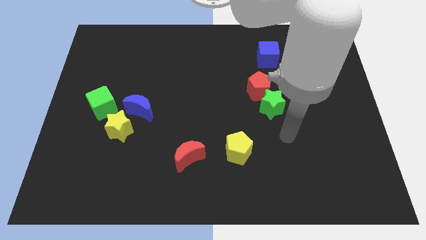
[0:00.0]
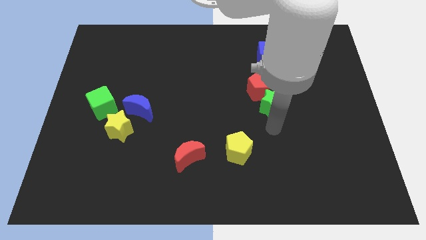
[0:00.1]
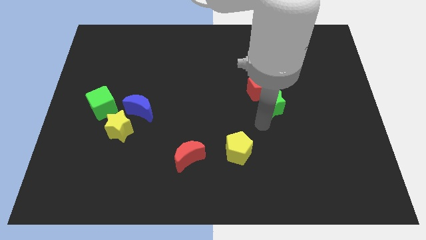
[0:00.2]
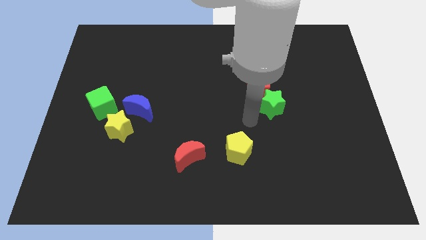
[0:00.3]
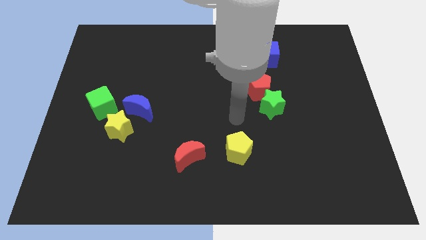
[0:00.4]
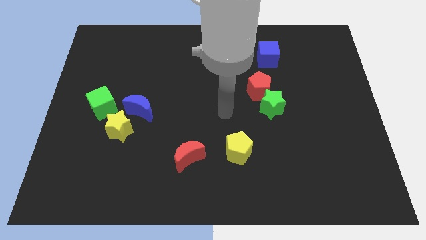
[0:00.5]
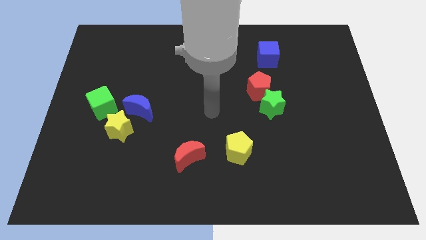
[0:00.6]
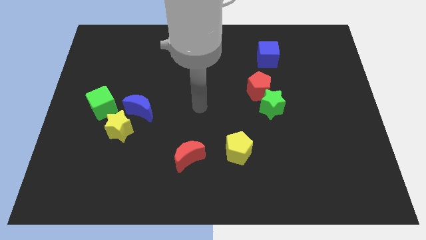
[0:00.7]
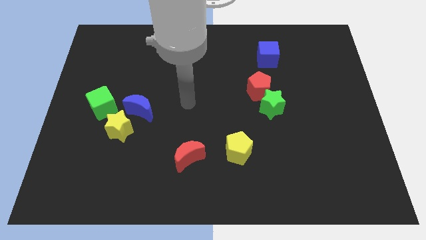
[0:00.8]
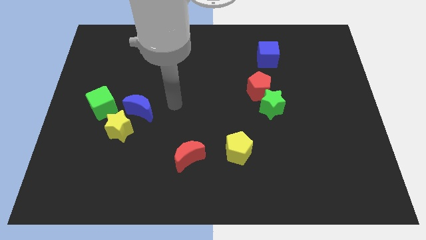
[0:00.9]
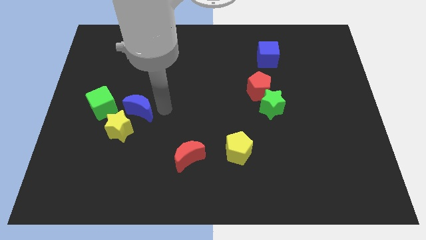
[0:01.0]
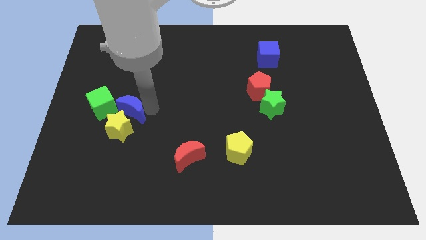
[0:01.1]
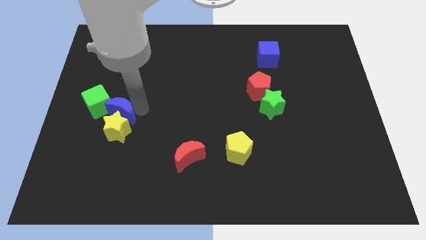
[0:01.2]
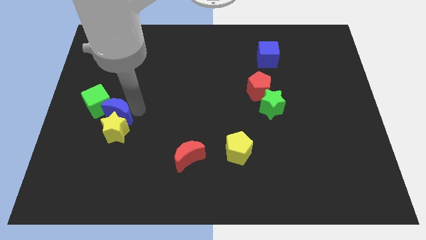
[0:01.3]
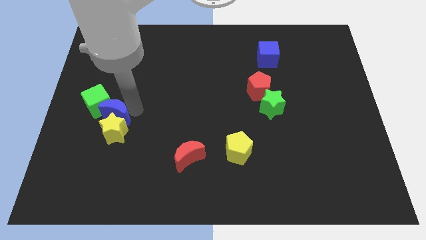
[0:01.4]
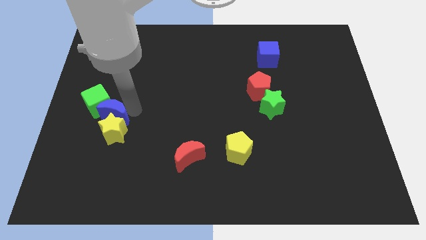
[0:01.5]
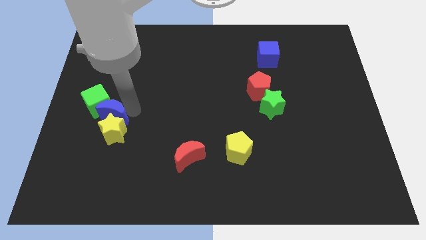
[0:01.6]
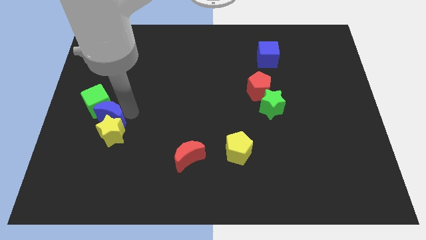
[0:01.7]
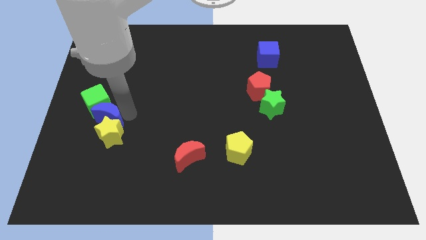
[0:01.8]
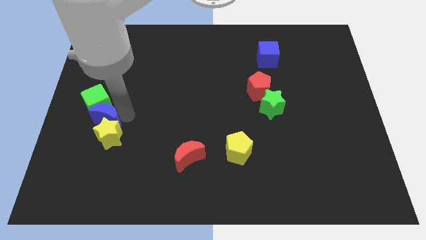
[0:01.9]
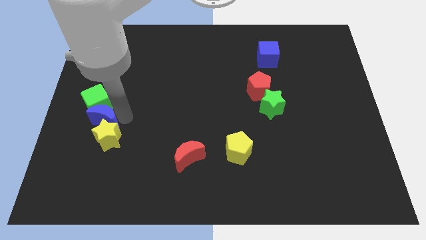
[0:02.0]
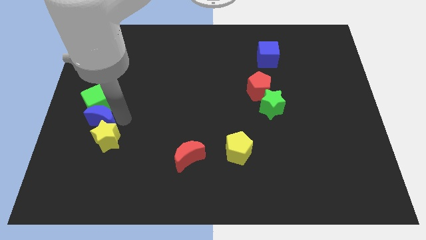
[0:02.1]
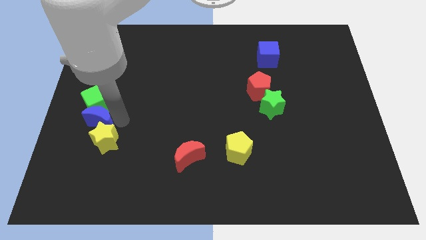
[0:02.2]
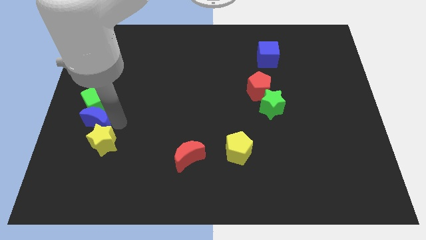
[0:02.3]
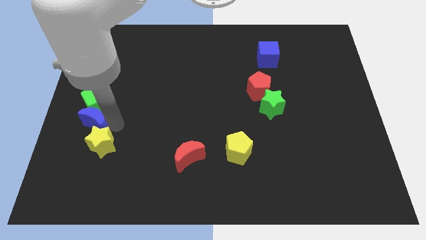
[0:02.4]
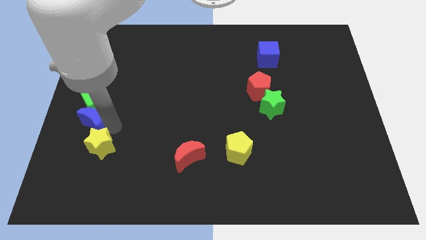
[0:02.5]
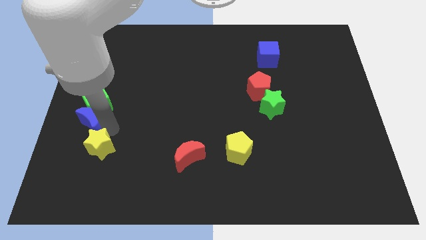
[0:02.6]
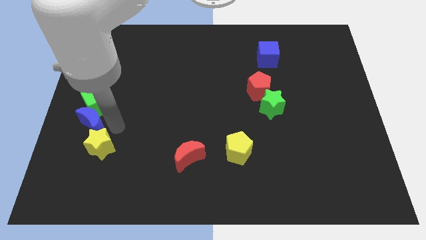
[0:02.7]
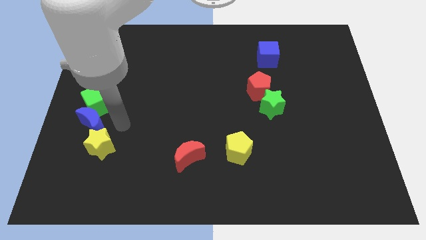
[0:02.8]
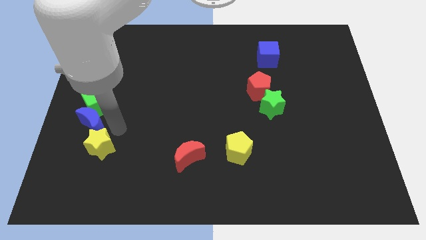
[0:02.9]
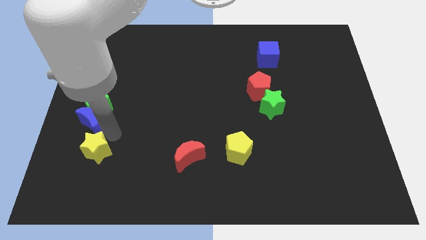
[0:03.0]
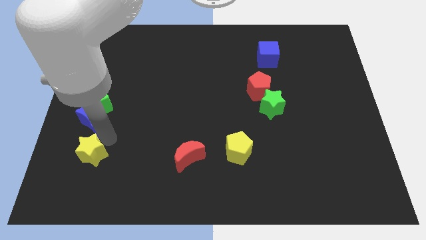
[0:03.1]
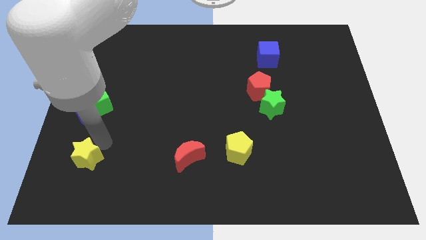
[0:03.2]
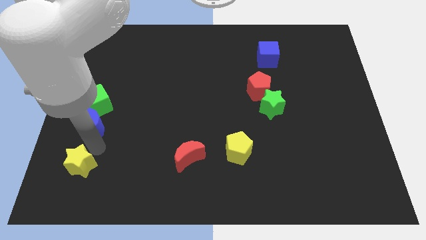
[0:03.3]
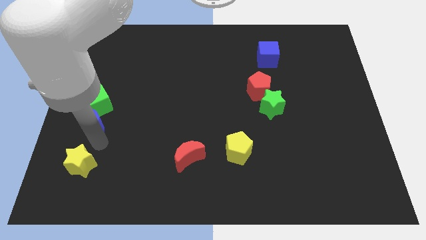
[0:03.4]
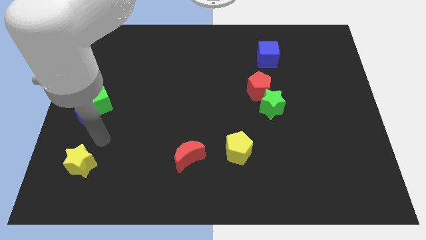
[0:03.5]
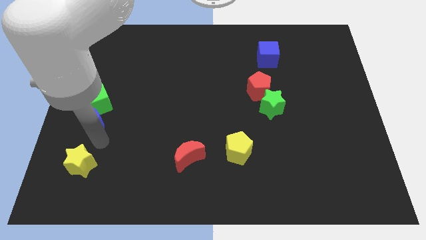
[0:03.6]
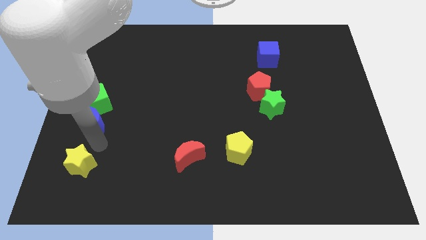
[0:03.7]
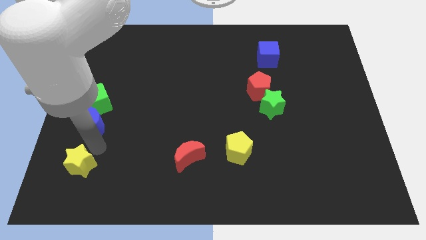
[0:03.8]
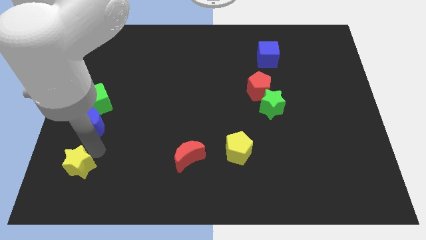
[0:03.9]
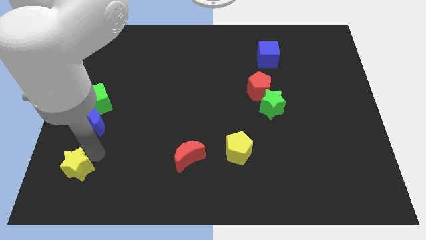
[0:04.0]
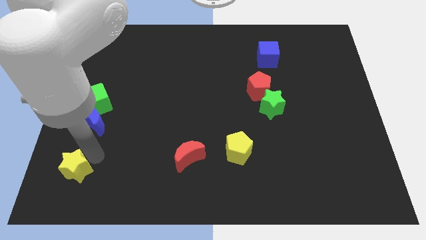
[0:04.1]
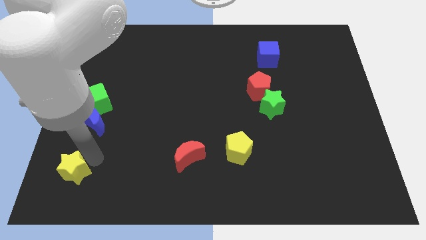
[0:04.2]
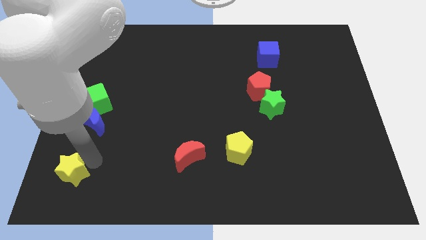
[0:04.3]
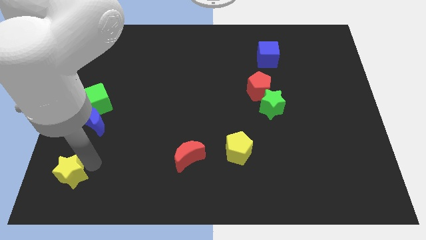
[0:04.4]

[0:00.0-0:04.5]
slide the yellow star to the lower left corner

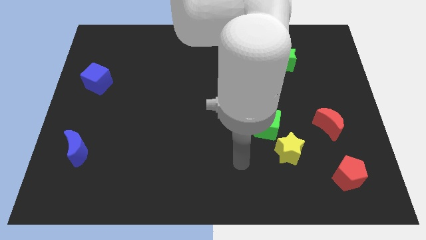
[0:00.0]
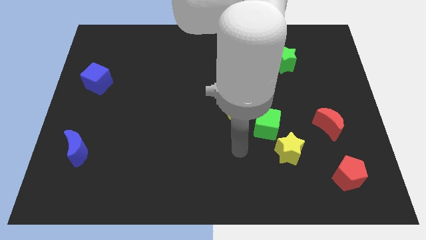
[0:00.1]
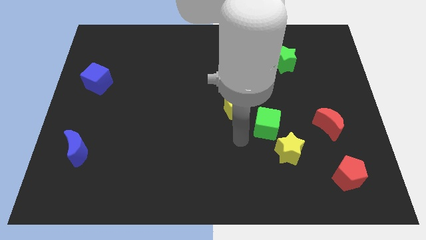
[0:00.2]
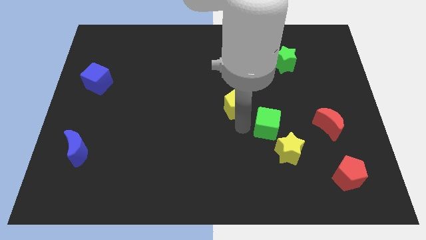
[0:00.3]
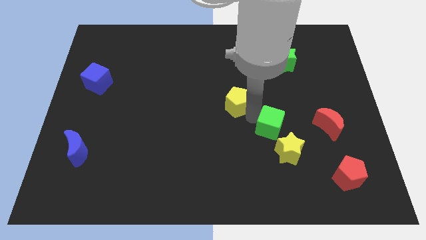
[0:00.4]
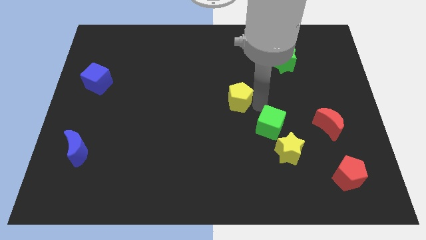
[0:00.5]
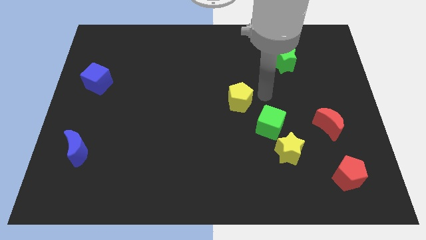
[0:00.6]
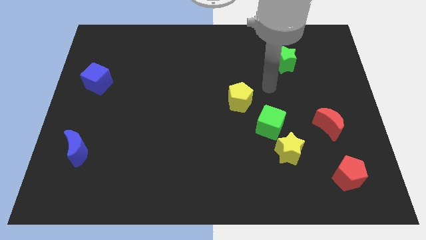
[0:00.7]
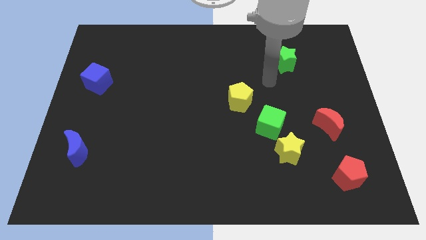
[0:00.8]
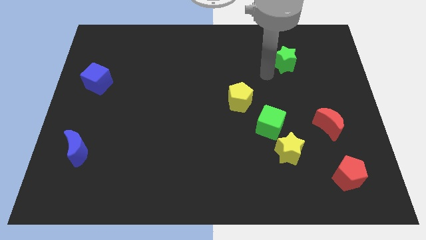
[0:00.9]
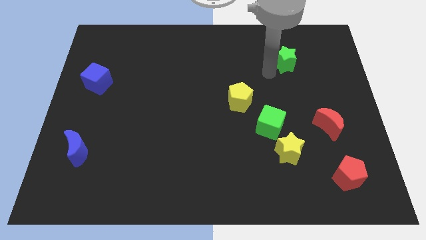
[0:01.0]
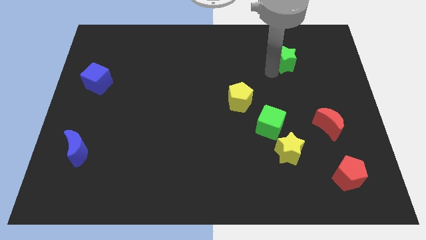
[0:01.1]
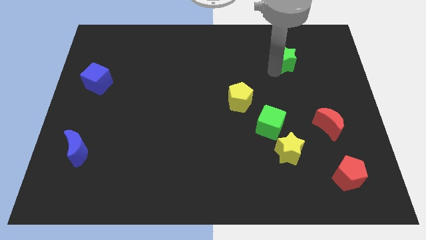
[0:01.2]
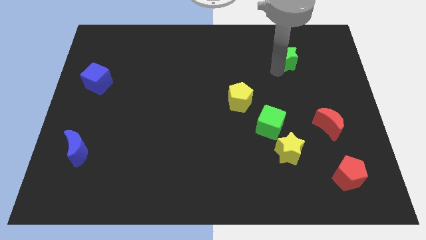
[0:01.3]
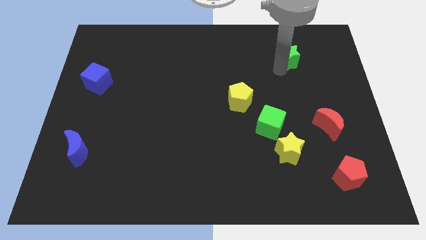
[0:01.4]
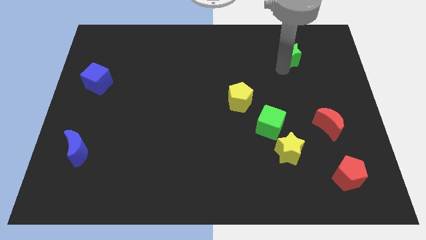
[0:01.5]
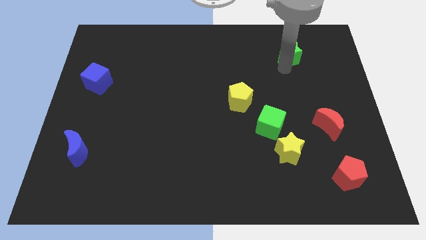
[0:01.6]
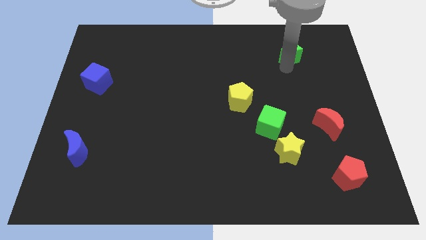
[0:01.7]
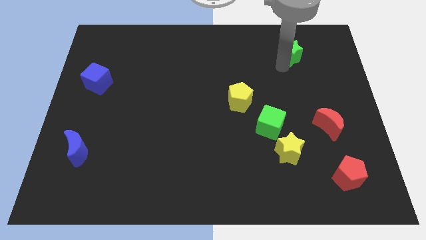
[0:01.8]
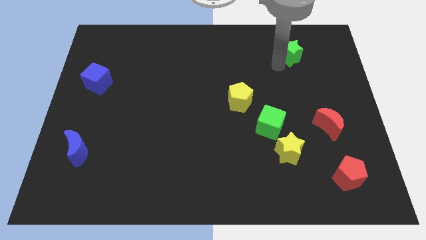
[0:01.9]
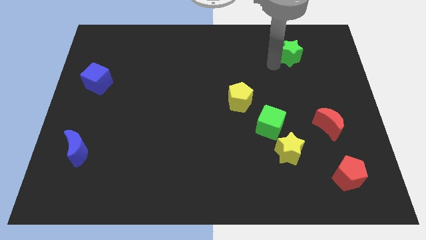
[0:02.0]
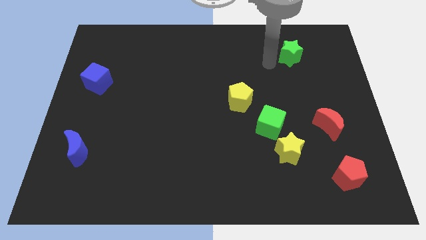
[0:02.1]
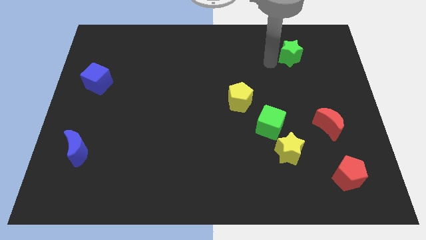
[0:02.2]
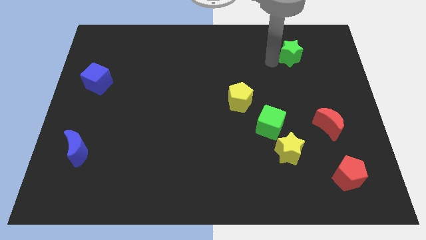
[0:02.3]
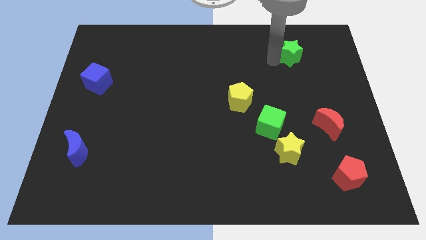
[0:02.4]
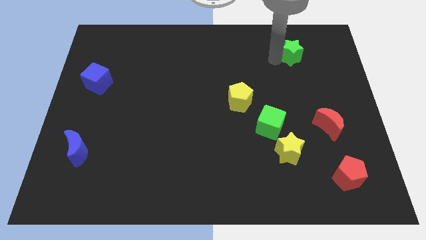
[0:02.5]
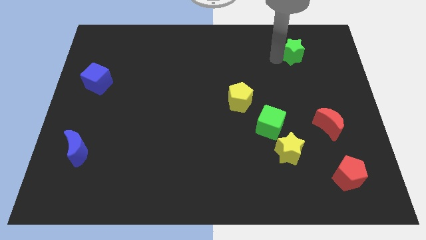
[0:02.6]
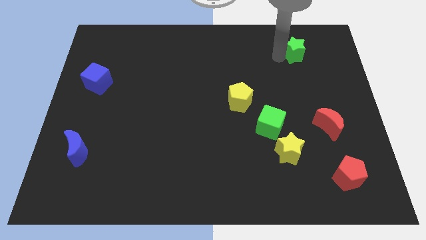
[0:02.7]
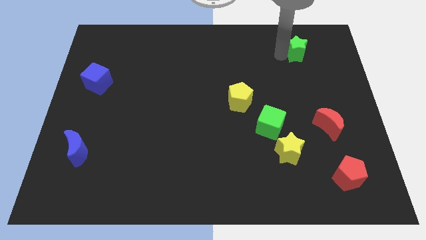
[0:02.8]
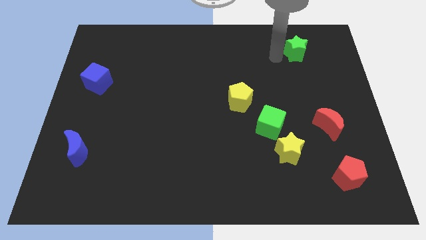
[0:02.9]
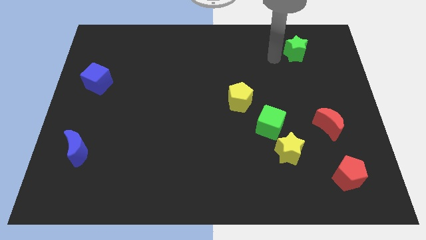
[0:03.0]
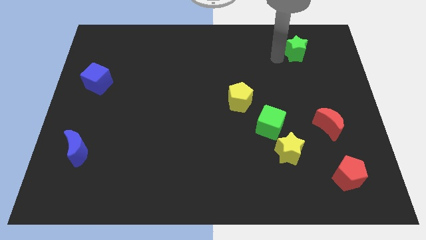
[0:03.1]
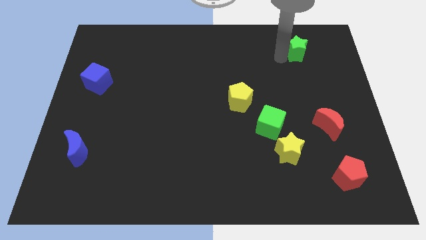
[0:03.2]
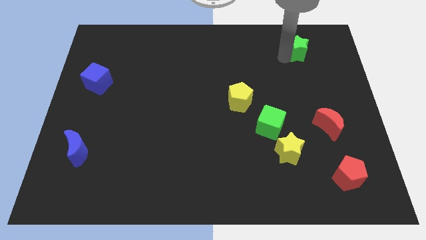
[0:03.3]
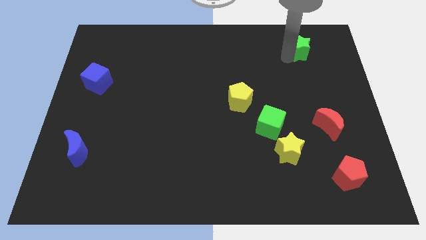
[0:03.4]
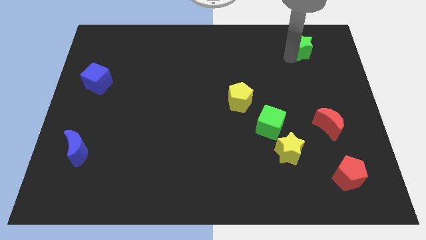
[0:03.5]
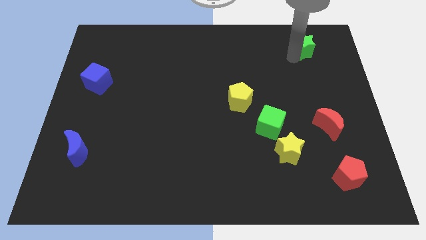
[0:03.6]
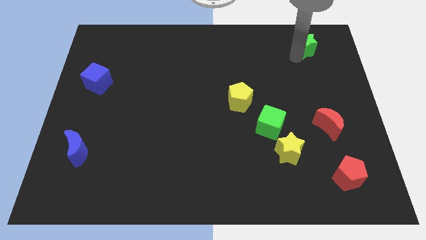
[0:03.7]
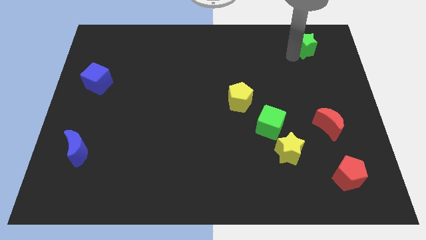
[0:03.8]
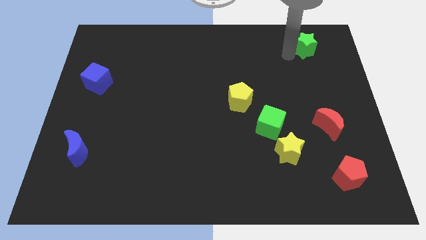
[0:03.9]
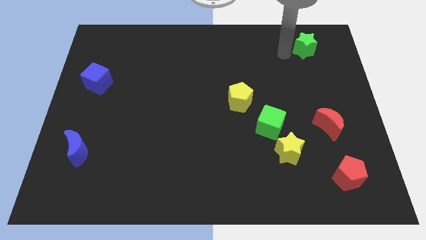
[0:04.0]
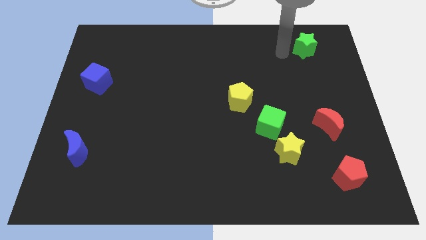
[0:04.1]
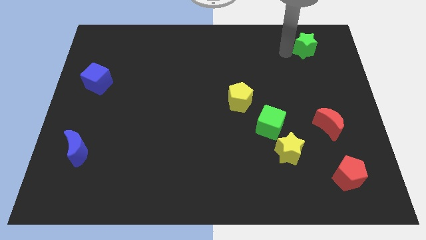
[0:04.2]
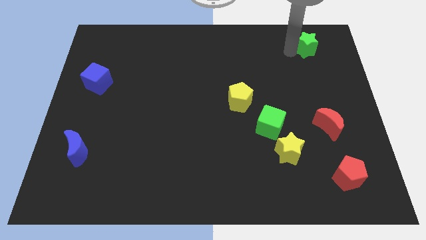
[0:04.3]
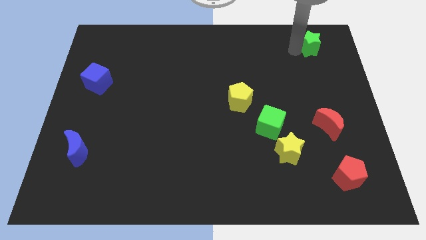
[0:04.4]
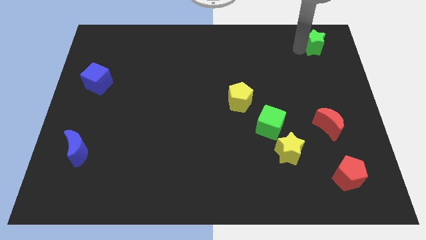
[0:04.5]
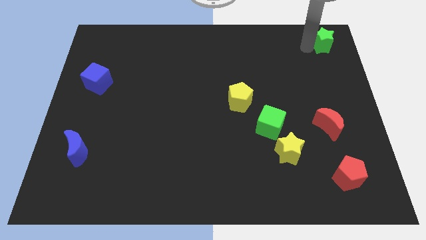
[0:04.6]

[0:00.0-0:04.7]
put the green star to the top right corner
